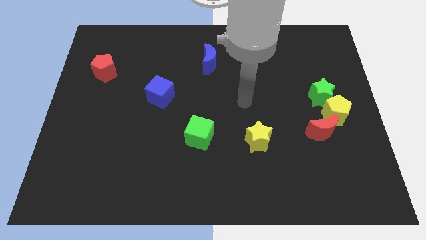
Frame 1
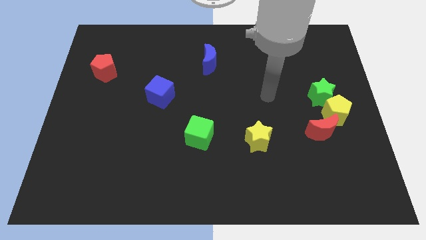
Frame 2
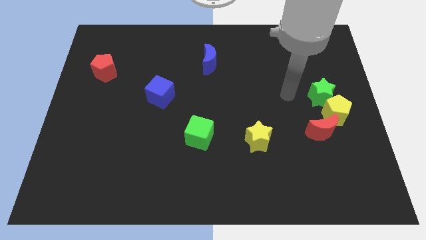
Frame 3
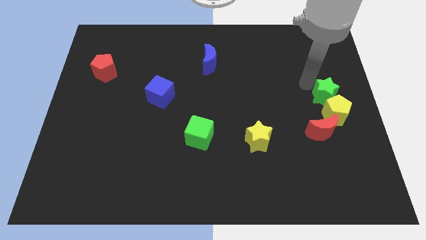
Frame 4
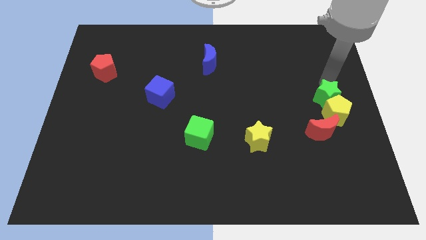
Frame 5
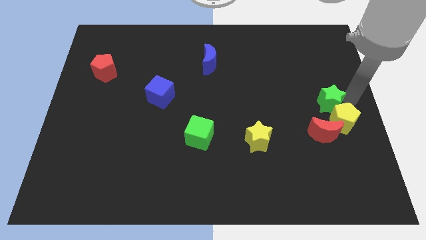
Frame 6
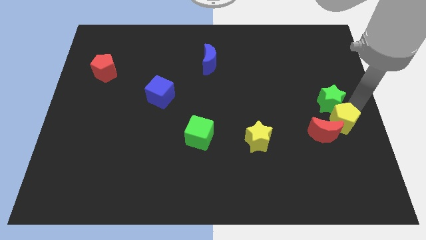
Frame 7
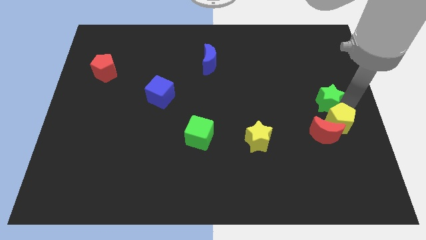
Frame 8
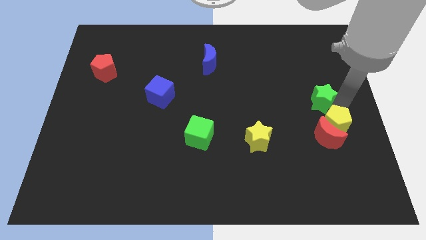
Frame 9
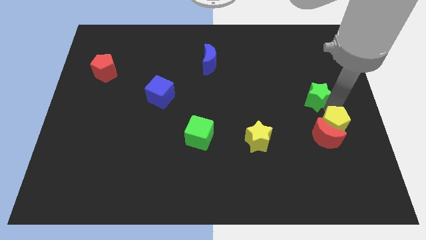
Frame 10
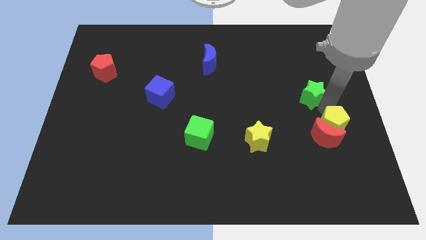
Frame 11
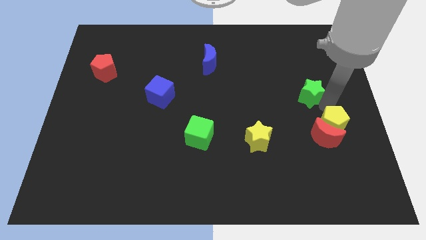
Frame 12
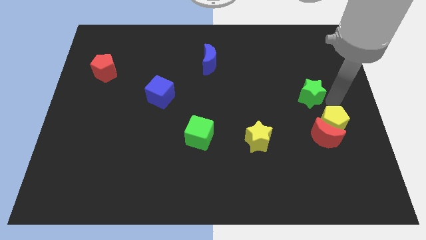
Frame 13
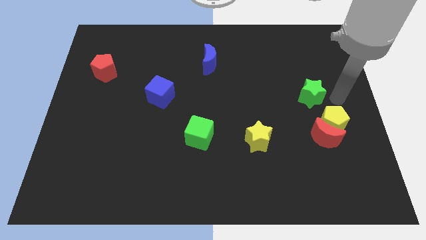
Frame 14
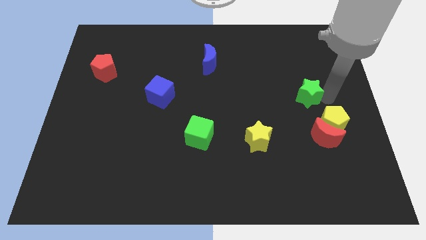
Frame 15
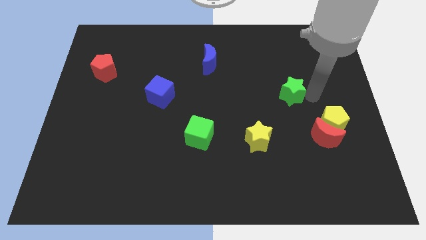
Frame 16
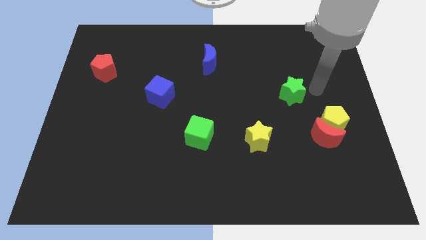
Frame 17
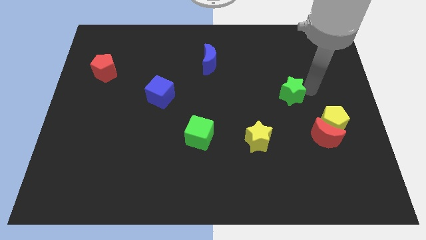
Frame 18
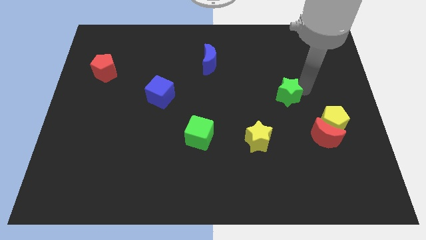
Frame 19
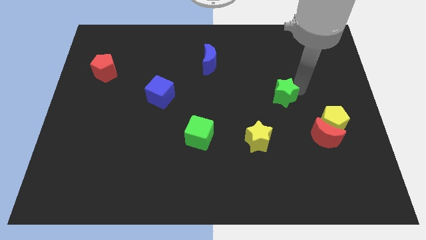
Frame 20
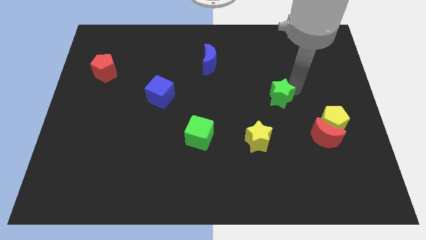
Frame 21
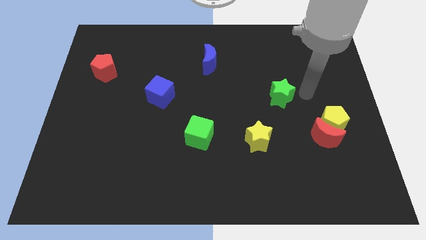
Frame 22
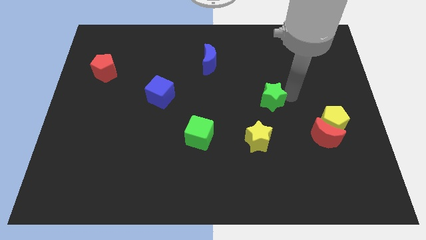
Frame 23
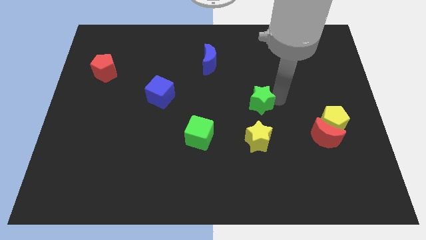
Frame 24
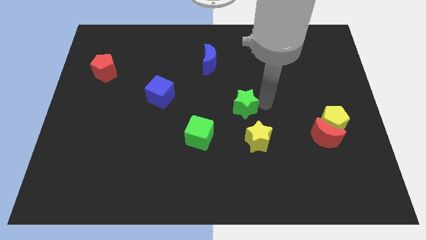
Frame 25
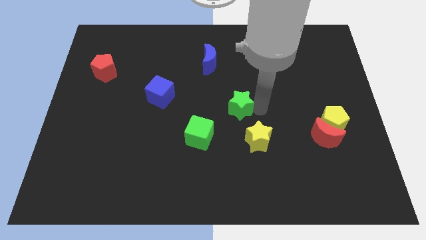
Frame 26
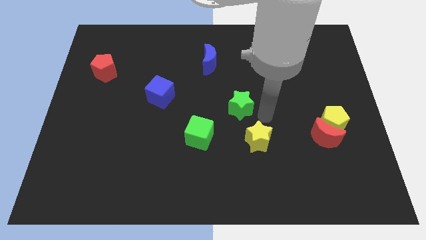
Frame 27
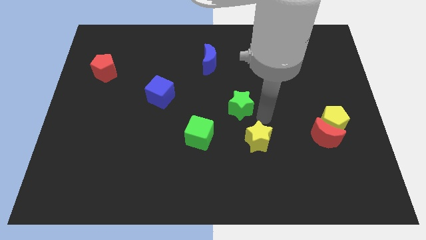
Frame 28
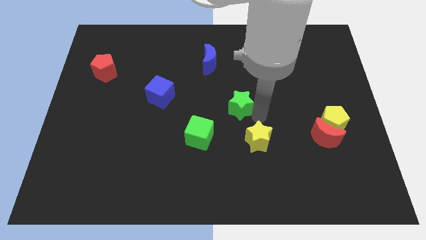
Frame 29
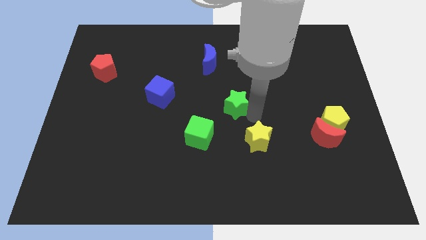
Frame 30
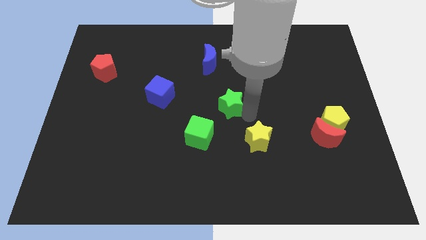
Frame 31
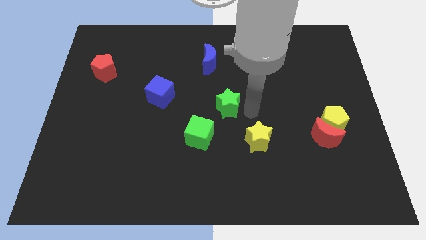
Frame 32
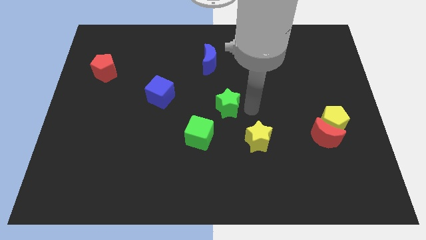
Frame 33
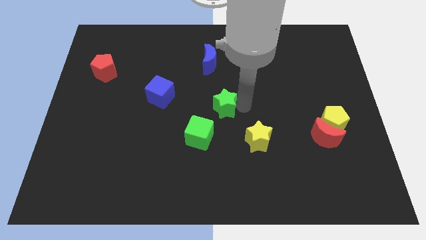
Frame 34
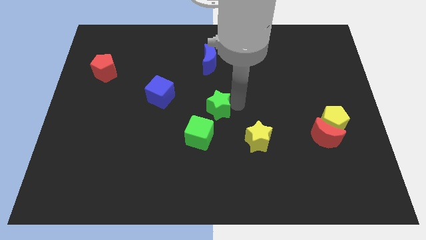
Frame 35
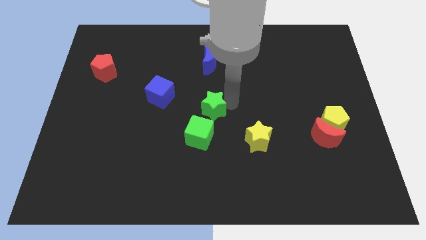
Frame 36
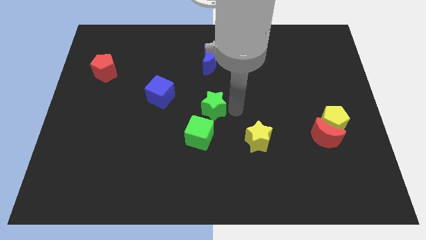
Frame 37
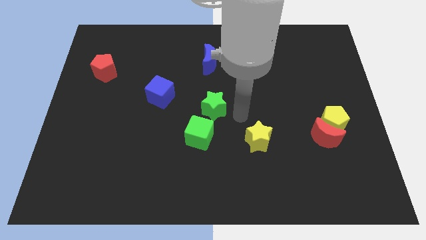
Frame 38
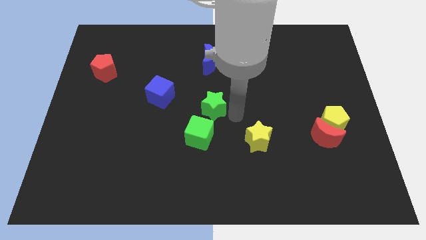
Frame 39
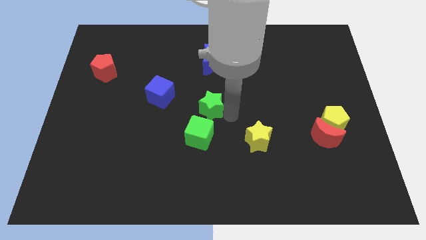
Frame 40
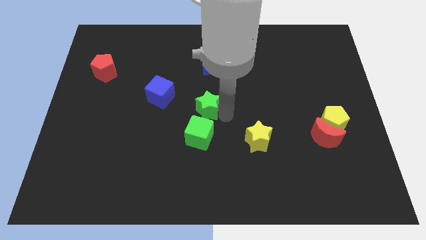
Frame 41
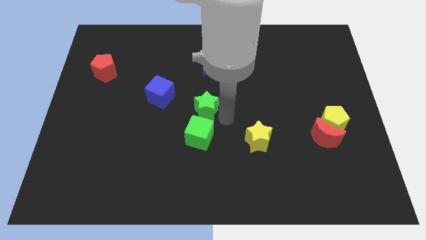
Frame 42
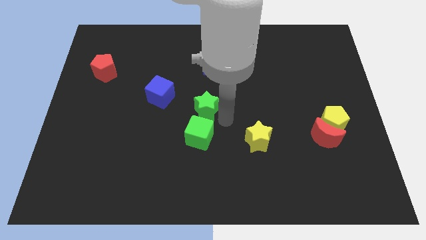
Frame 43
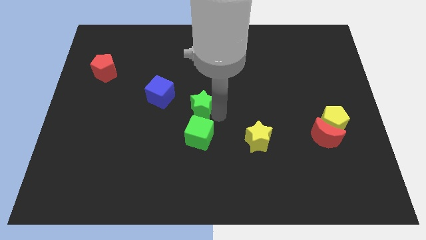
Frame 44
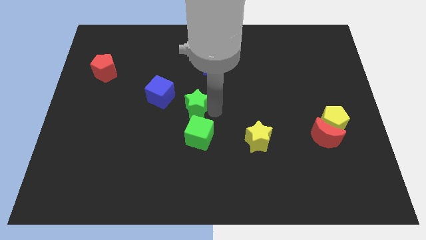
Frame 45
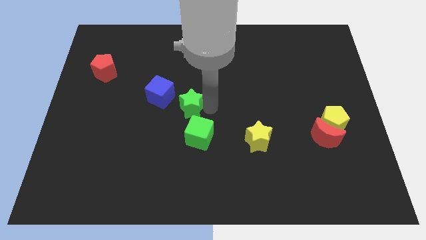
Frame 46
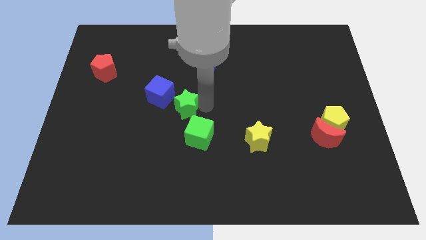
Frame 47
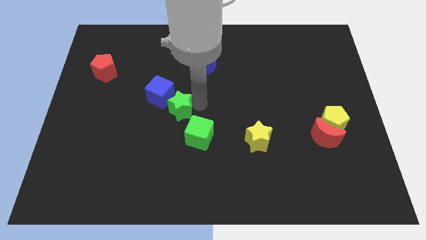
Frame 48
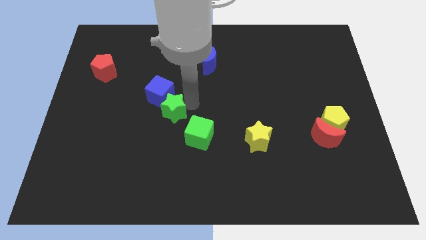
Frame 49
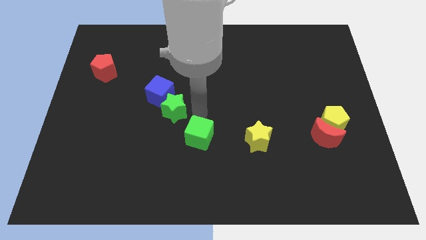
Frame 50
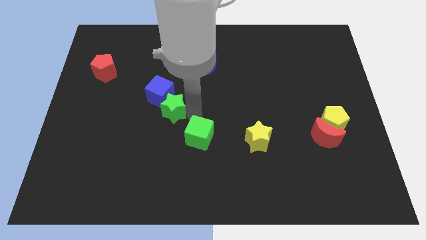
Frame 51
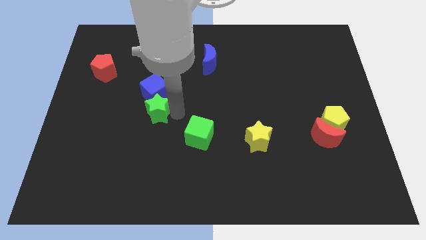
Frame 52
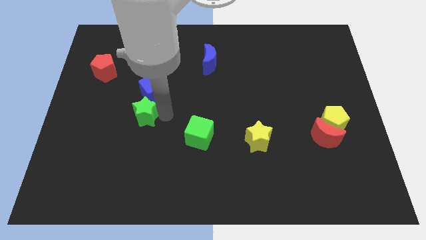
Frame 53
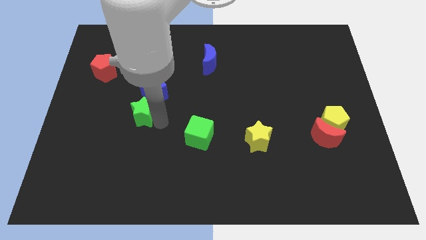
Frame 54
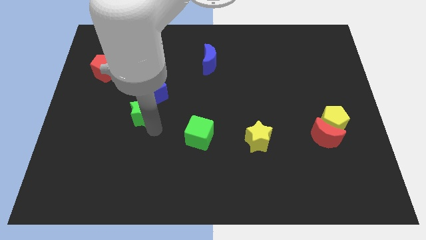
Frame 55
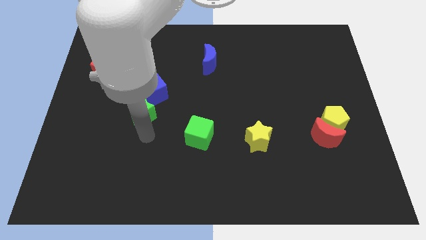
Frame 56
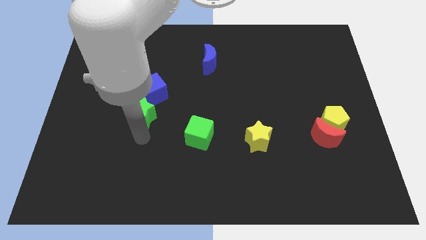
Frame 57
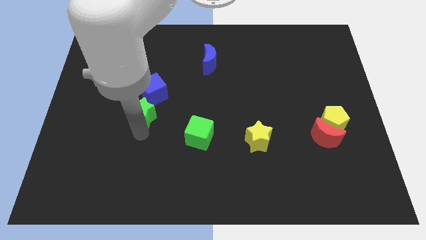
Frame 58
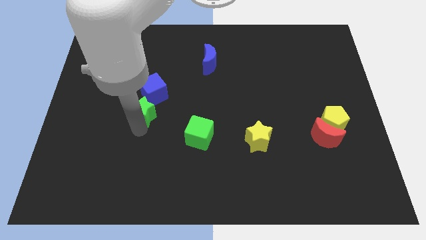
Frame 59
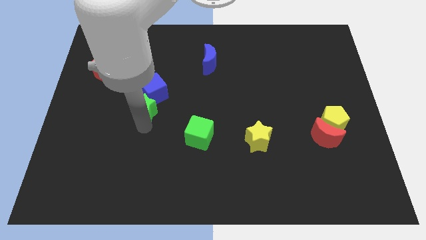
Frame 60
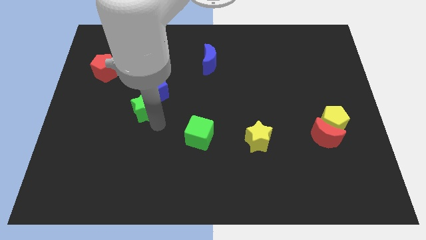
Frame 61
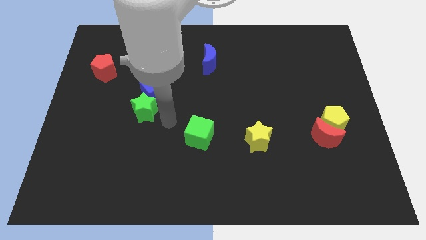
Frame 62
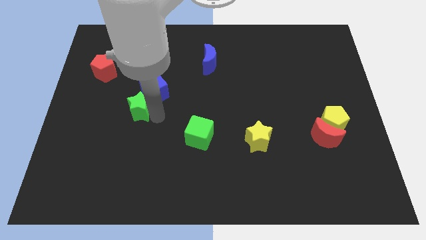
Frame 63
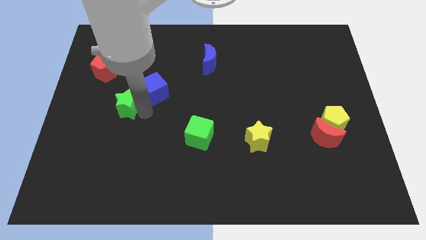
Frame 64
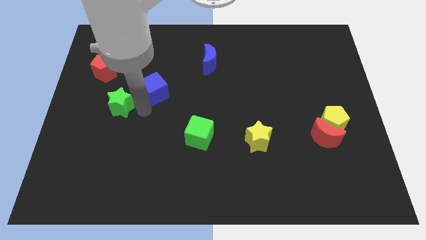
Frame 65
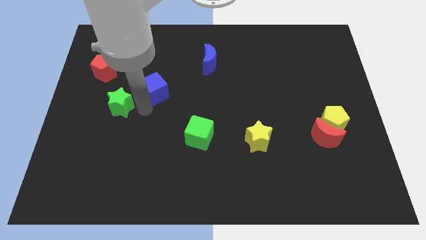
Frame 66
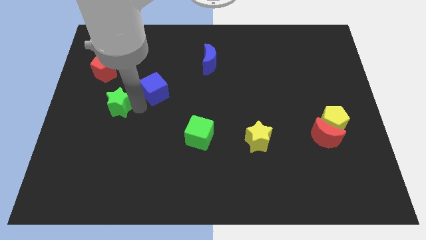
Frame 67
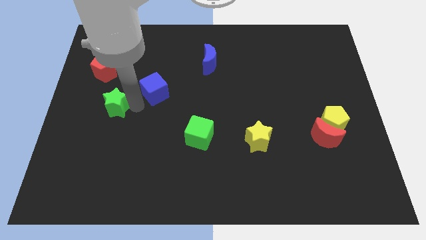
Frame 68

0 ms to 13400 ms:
push the green star to the bottom side of the red pentagon

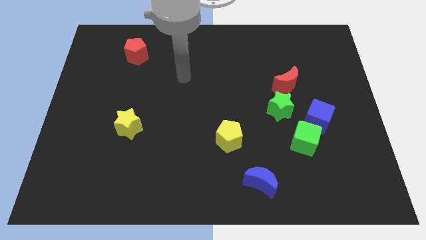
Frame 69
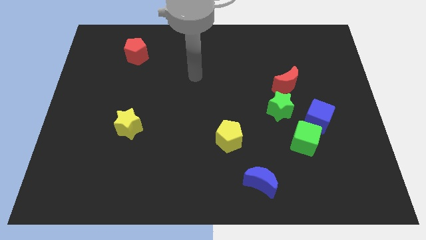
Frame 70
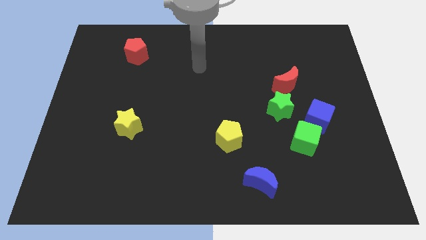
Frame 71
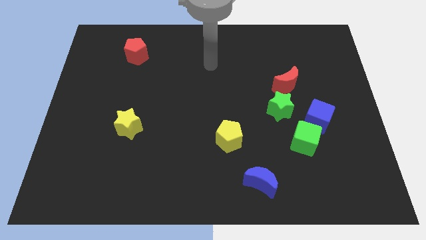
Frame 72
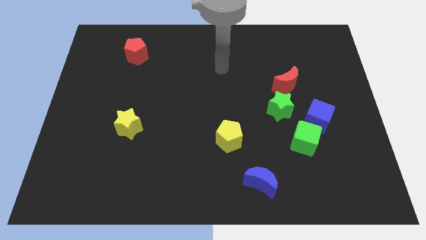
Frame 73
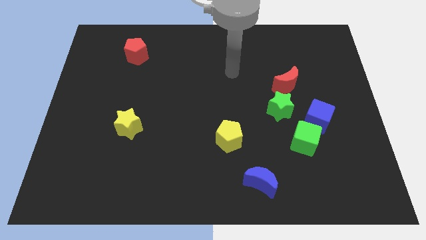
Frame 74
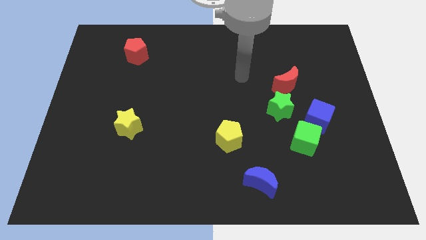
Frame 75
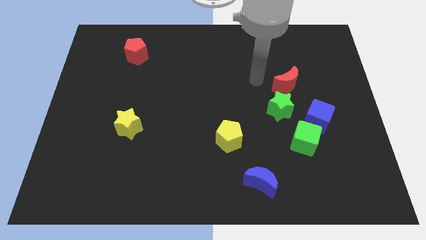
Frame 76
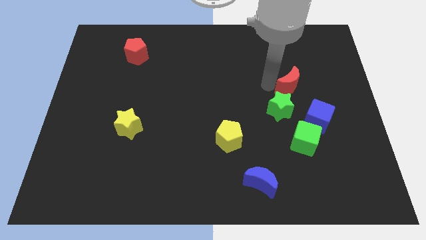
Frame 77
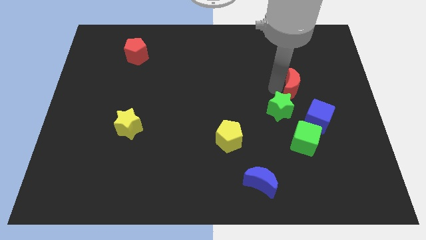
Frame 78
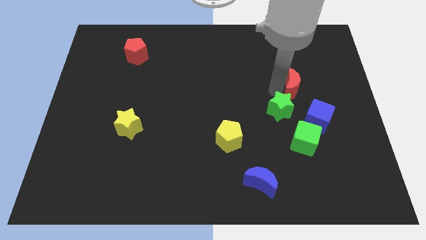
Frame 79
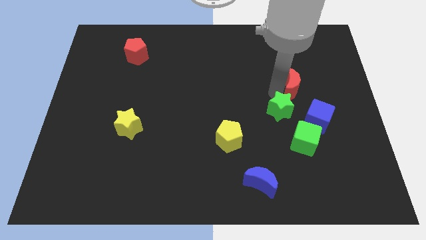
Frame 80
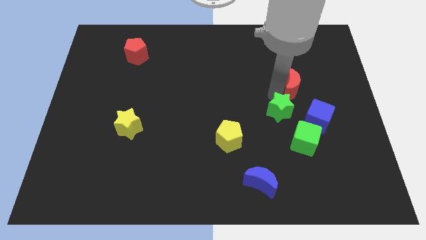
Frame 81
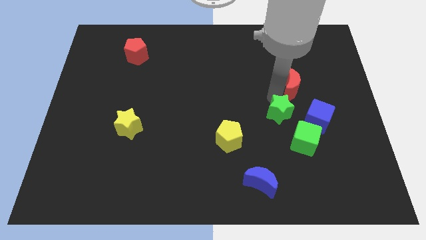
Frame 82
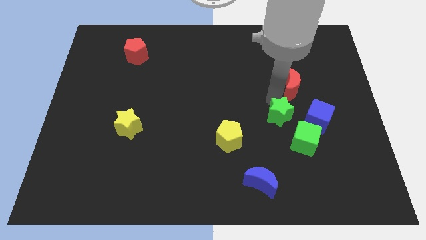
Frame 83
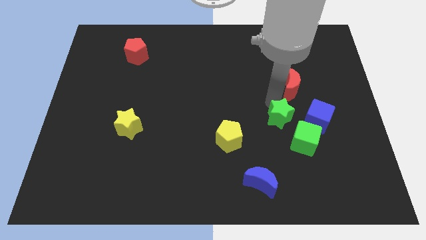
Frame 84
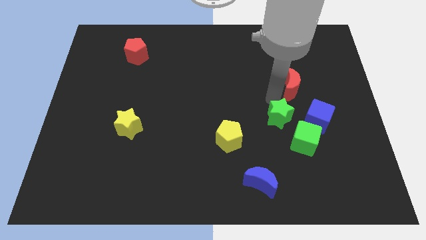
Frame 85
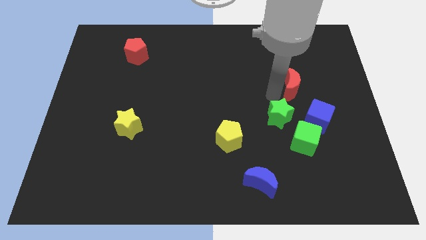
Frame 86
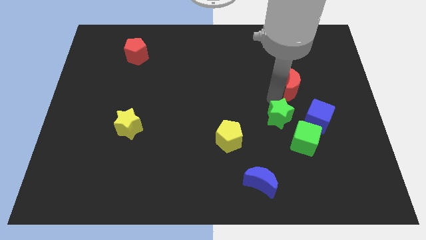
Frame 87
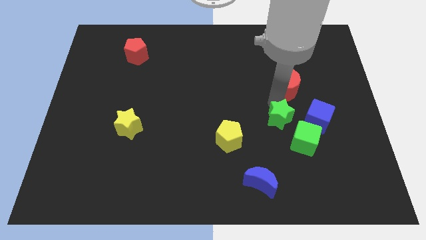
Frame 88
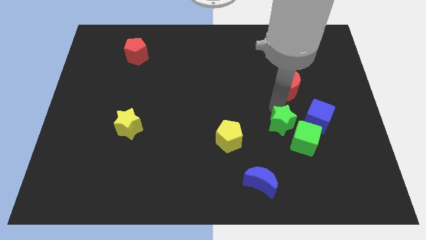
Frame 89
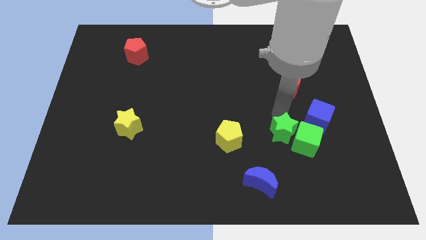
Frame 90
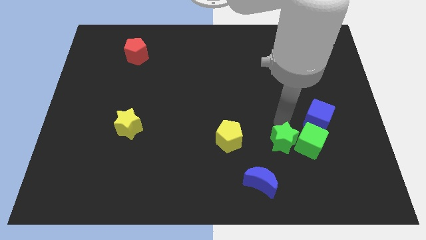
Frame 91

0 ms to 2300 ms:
push the green star diagonally down and to the left of the green cube
